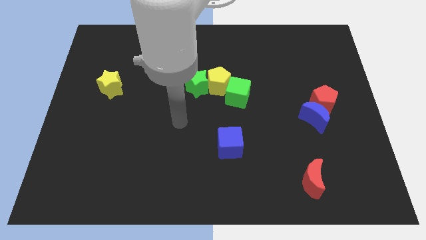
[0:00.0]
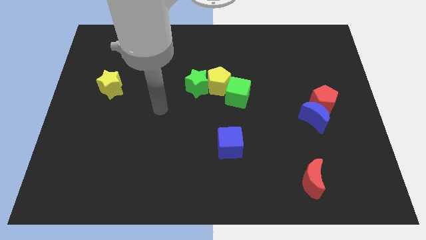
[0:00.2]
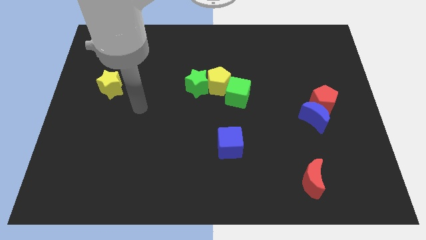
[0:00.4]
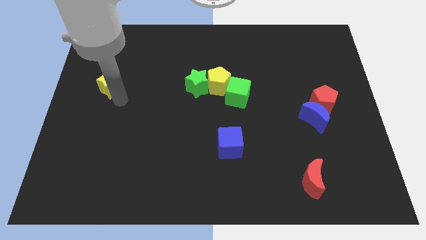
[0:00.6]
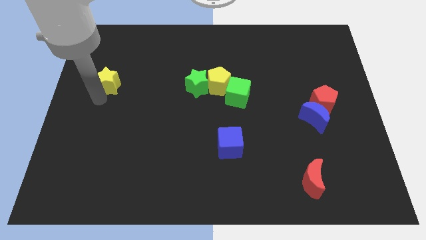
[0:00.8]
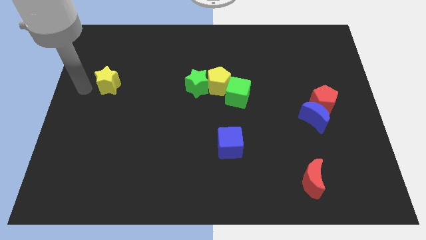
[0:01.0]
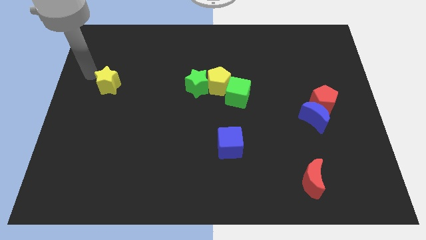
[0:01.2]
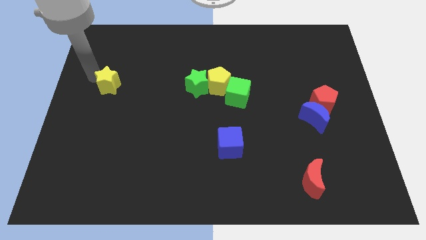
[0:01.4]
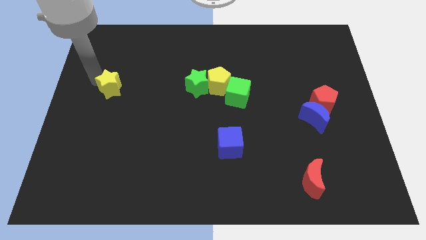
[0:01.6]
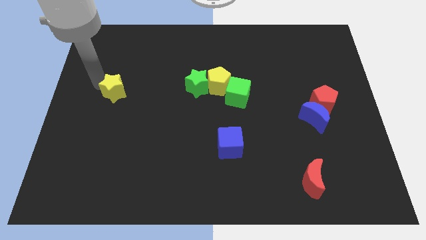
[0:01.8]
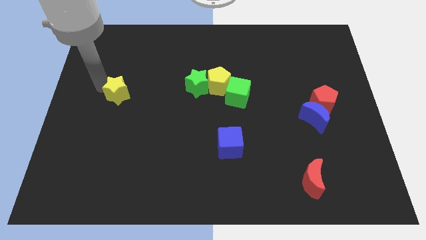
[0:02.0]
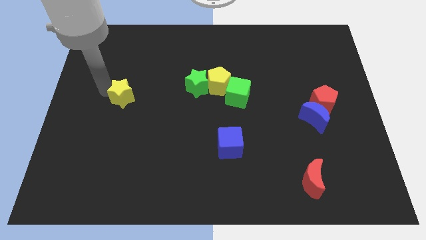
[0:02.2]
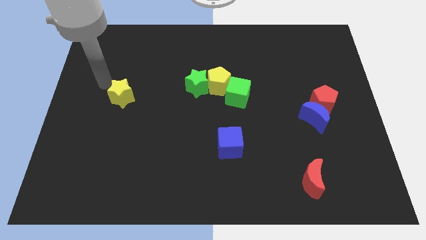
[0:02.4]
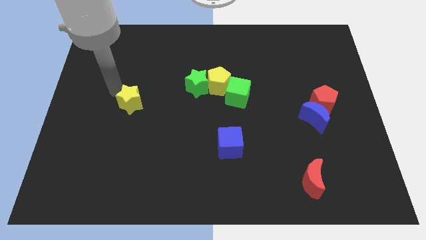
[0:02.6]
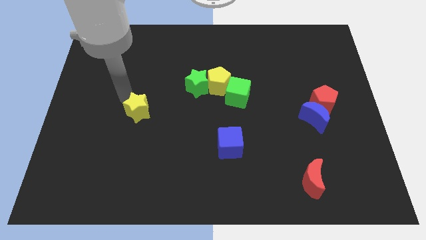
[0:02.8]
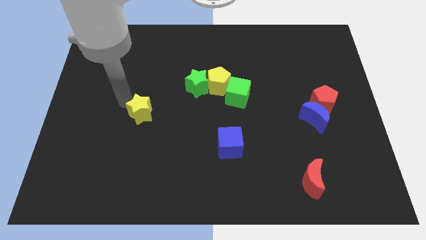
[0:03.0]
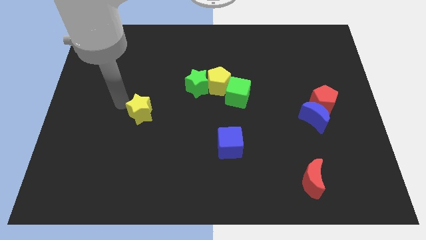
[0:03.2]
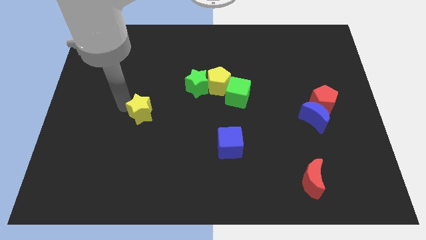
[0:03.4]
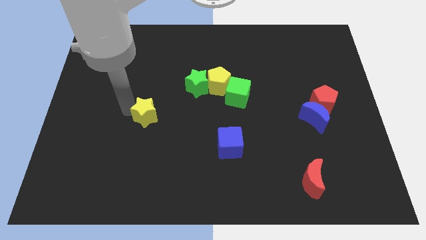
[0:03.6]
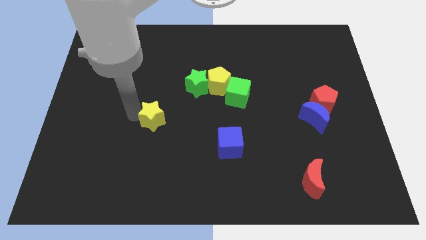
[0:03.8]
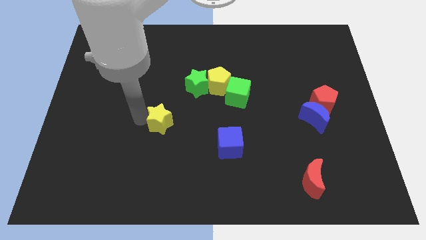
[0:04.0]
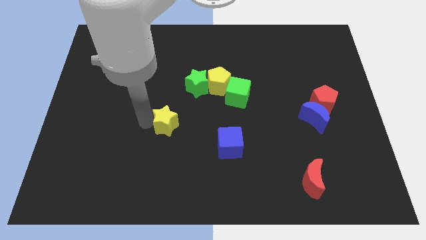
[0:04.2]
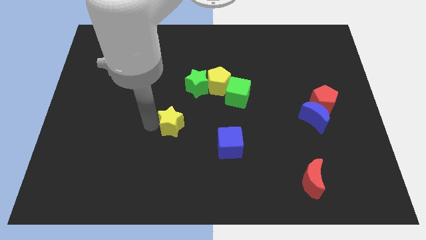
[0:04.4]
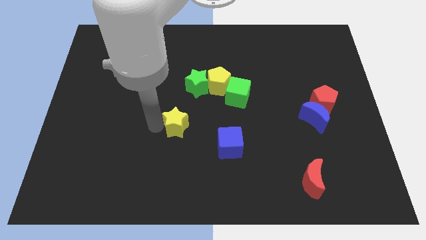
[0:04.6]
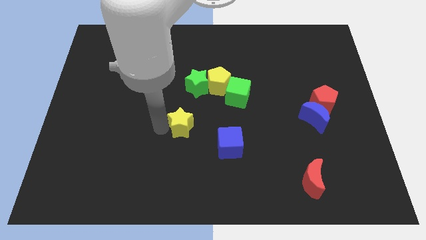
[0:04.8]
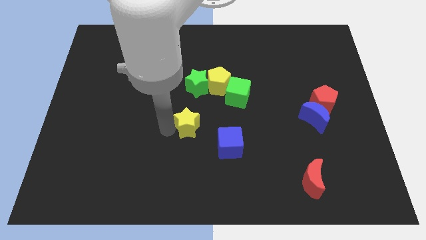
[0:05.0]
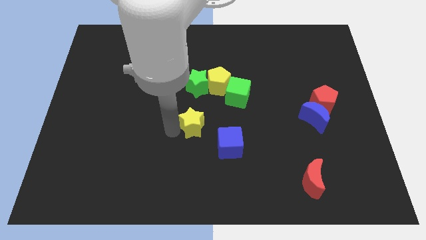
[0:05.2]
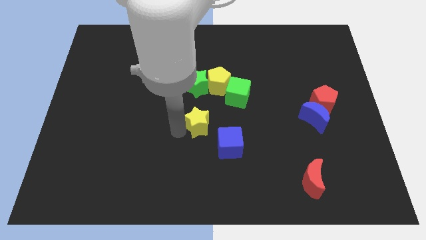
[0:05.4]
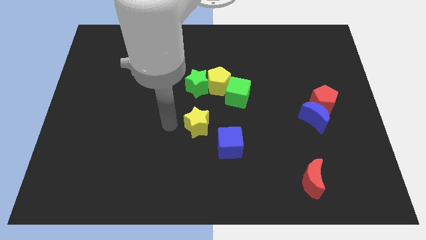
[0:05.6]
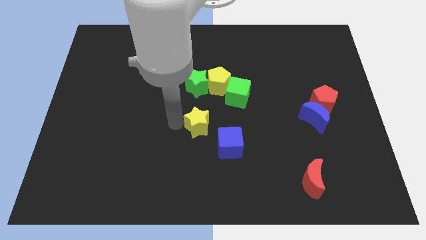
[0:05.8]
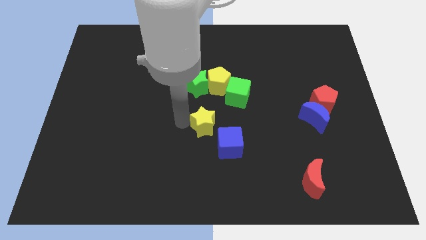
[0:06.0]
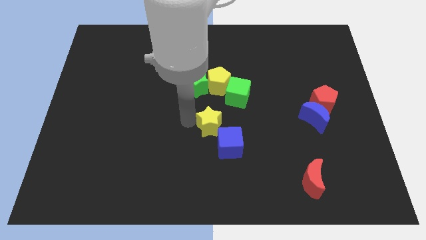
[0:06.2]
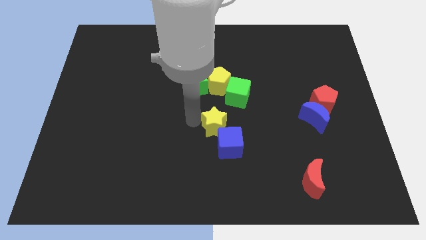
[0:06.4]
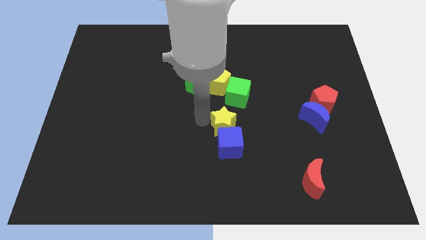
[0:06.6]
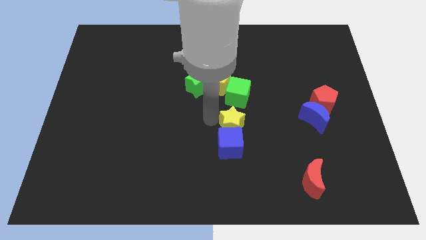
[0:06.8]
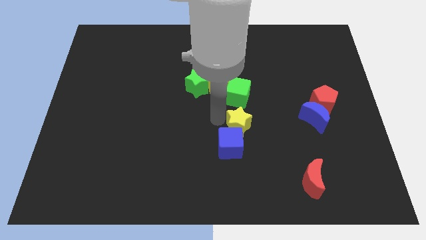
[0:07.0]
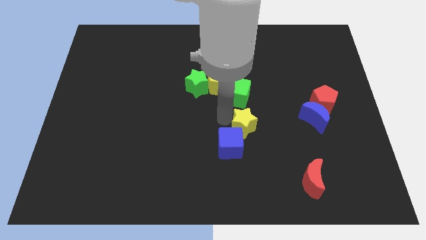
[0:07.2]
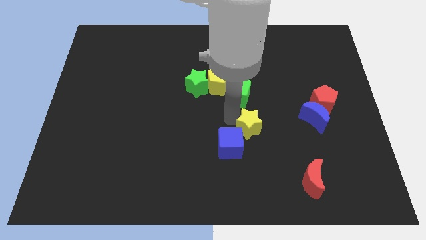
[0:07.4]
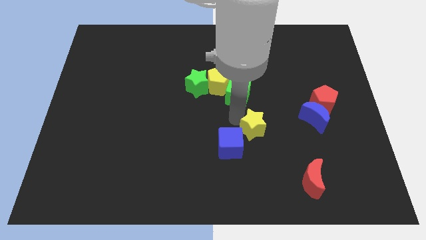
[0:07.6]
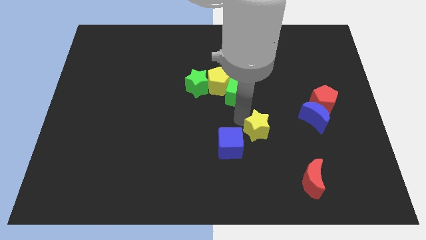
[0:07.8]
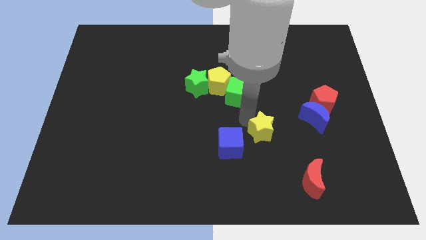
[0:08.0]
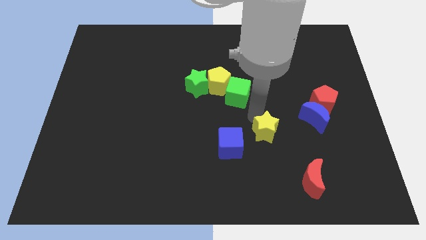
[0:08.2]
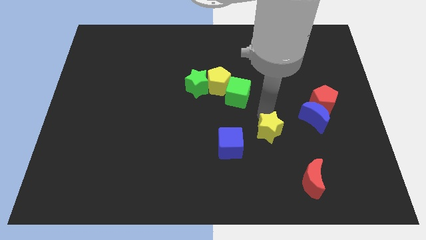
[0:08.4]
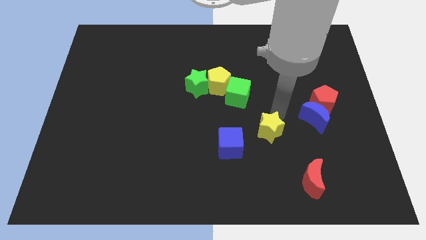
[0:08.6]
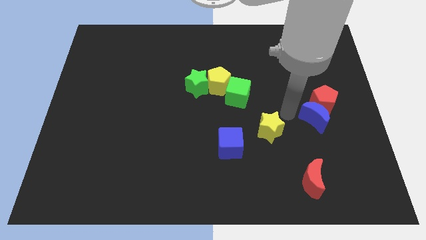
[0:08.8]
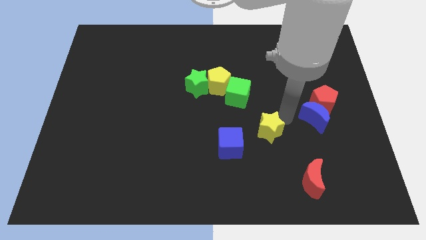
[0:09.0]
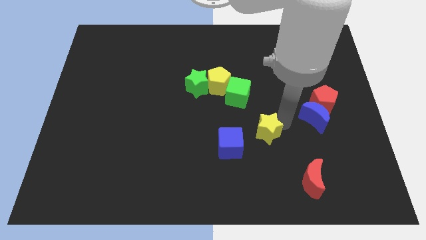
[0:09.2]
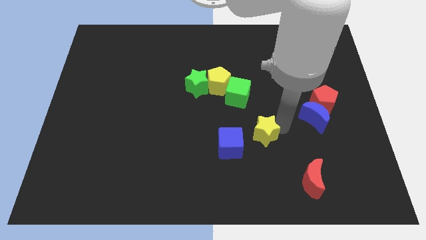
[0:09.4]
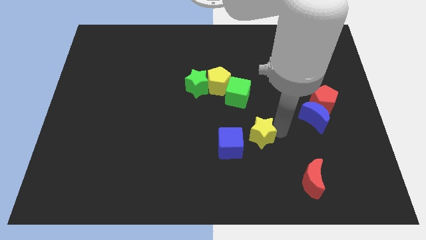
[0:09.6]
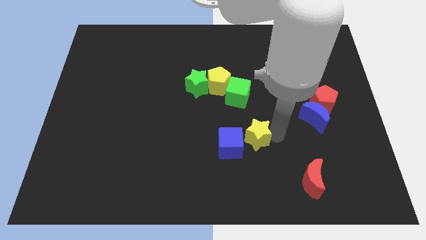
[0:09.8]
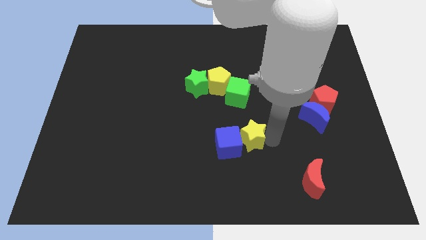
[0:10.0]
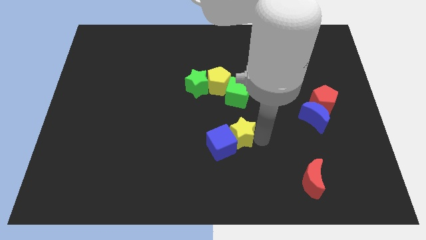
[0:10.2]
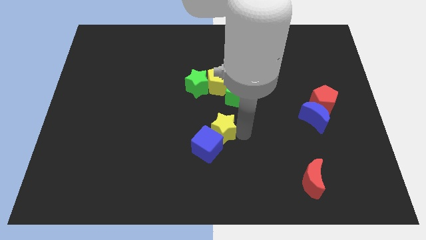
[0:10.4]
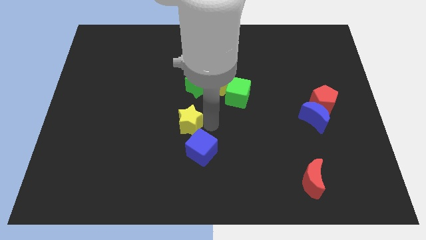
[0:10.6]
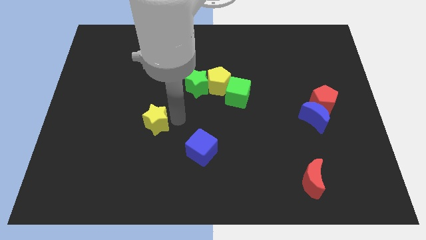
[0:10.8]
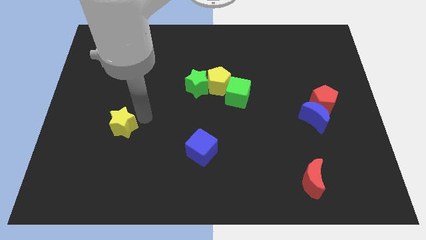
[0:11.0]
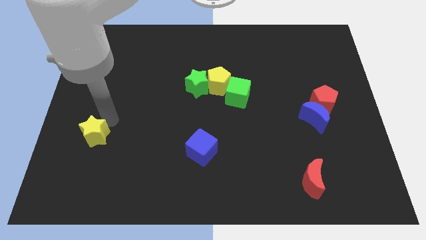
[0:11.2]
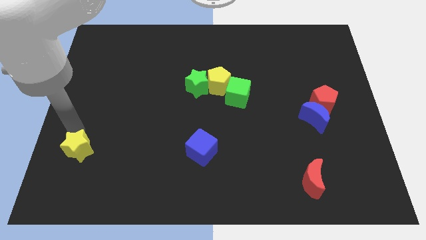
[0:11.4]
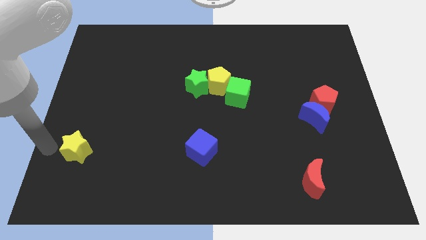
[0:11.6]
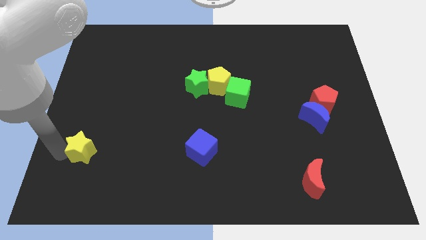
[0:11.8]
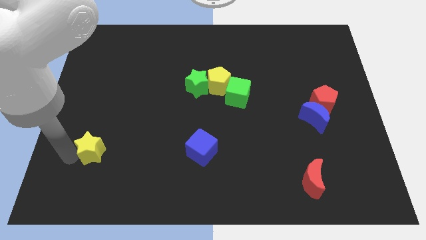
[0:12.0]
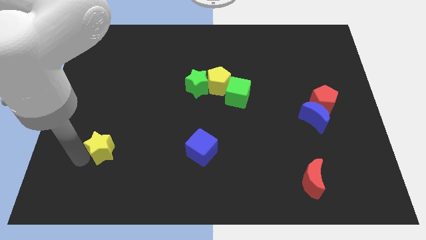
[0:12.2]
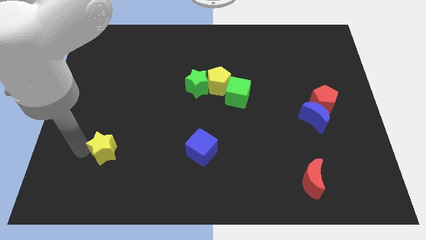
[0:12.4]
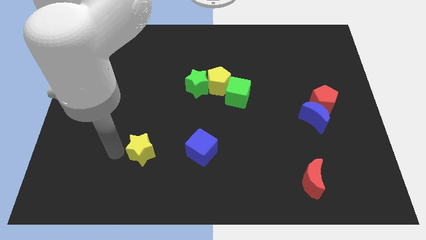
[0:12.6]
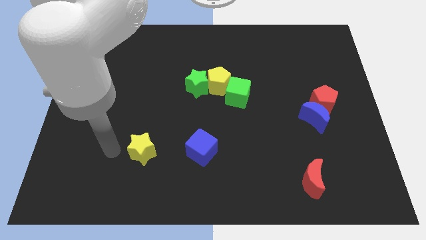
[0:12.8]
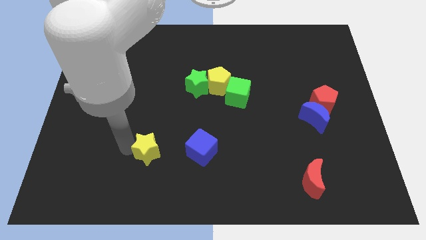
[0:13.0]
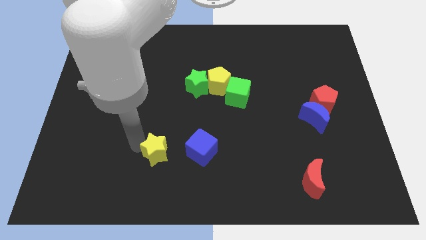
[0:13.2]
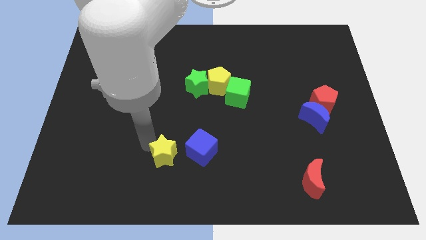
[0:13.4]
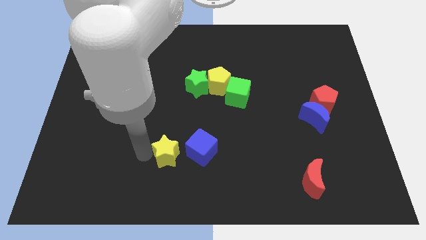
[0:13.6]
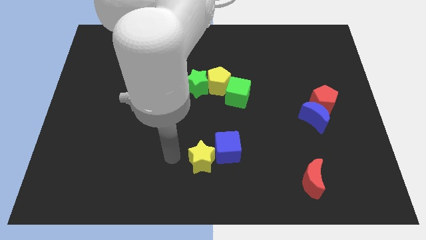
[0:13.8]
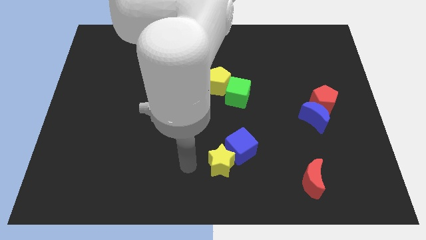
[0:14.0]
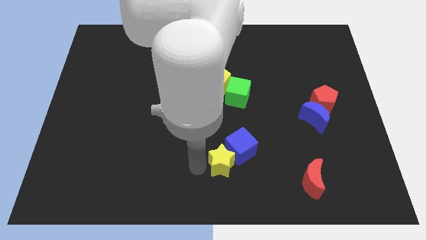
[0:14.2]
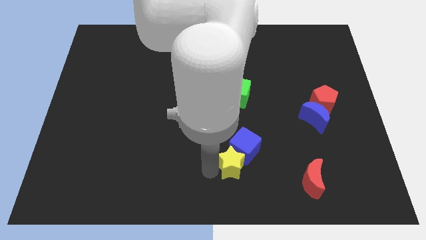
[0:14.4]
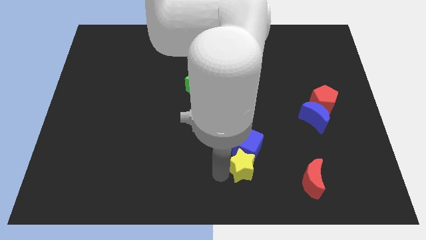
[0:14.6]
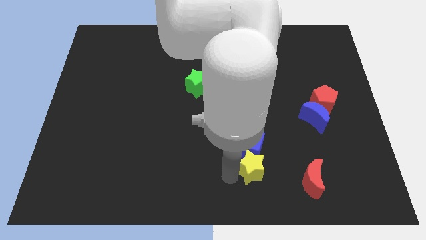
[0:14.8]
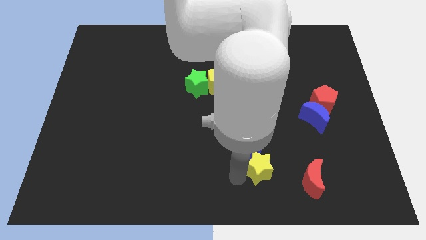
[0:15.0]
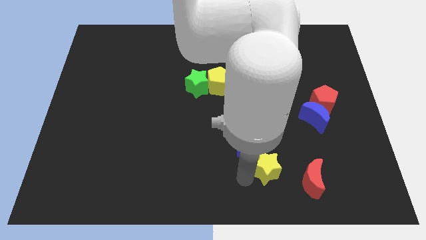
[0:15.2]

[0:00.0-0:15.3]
put the yellow star to the top left of the red moon
